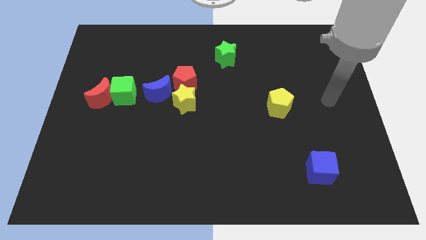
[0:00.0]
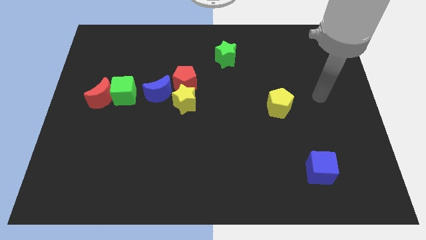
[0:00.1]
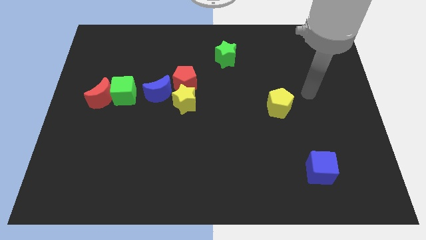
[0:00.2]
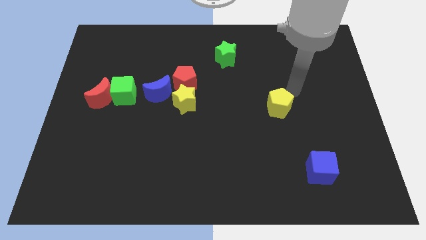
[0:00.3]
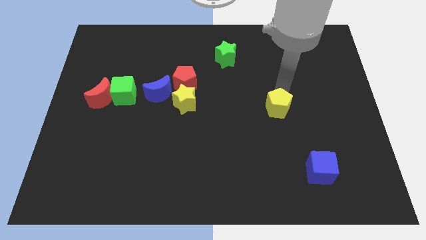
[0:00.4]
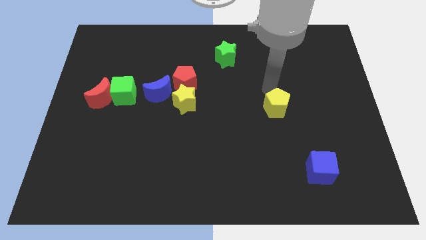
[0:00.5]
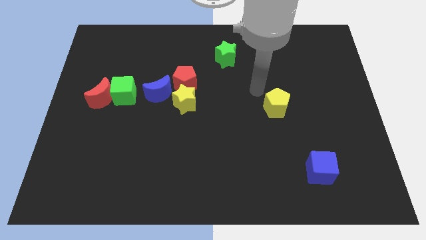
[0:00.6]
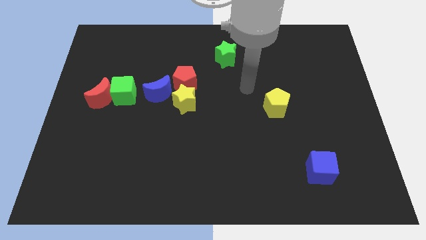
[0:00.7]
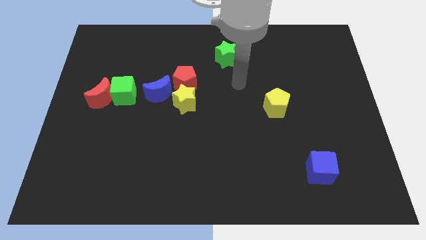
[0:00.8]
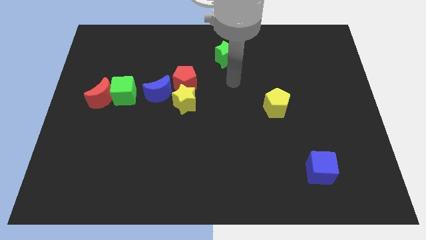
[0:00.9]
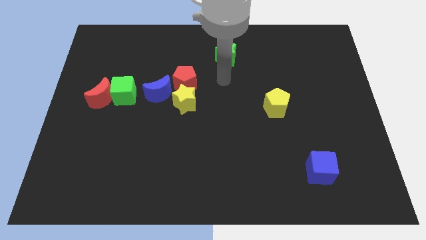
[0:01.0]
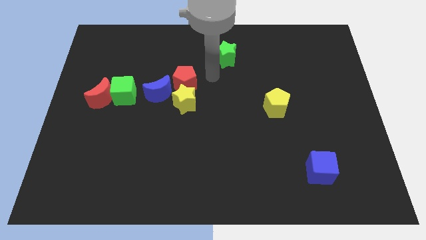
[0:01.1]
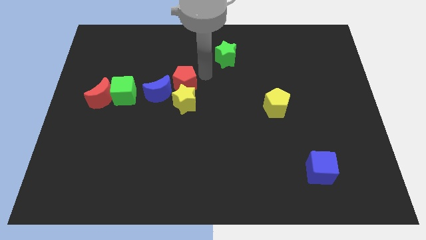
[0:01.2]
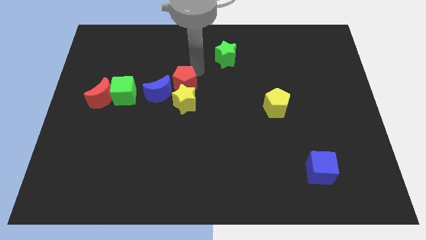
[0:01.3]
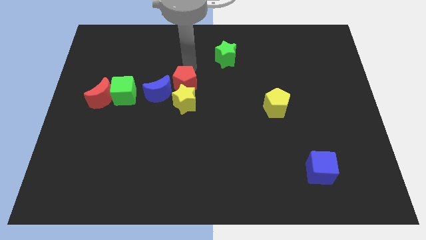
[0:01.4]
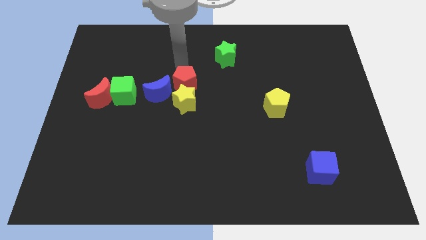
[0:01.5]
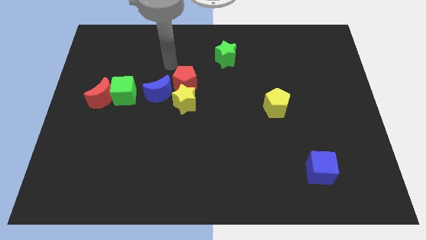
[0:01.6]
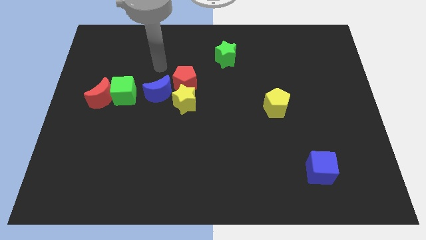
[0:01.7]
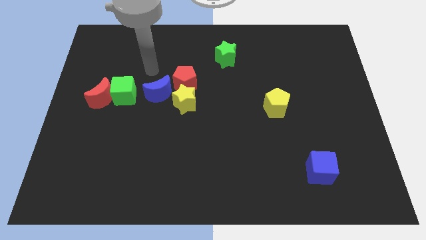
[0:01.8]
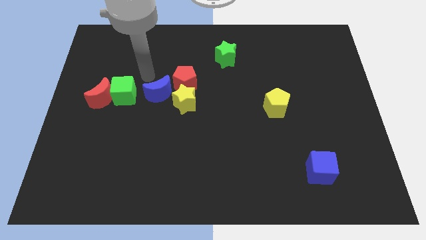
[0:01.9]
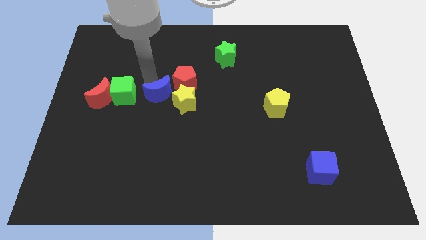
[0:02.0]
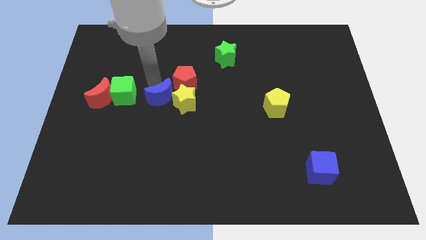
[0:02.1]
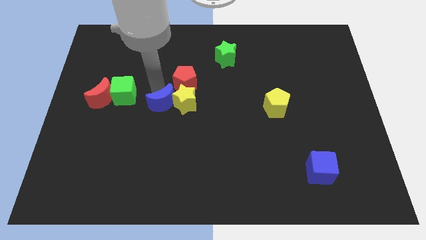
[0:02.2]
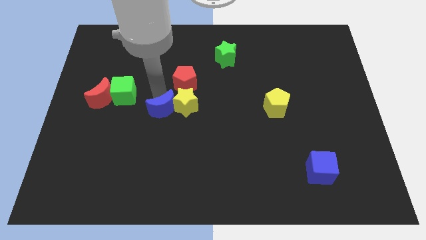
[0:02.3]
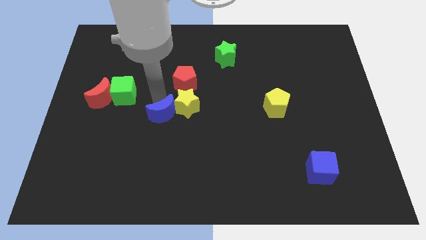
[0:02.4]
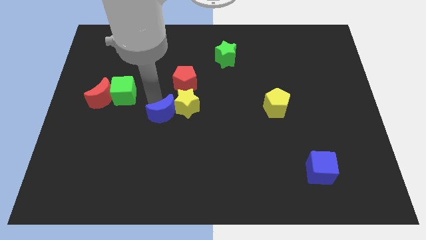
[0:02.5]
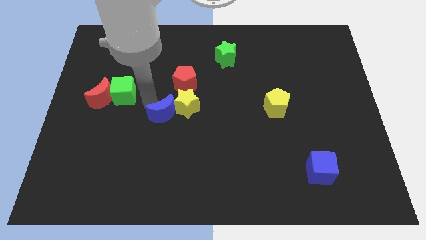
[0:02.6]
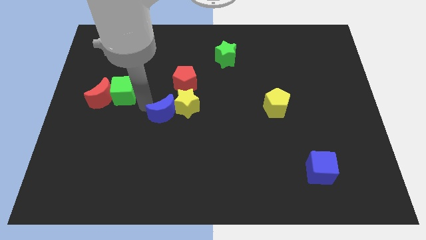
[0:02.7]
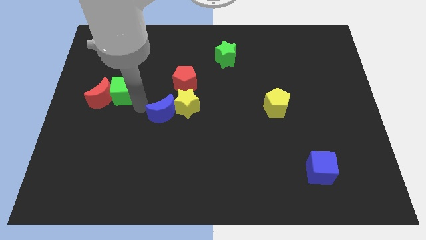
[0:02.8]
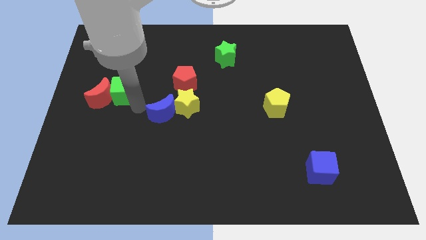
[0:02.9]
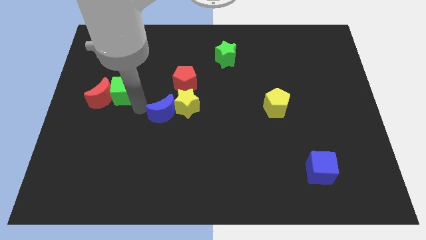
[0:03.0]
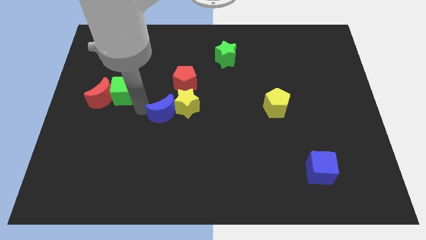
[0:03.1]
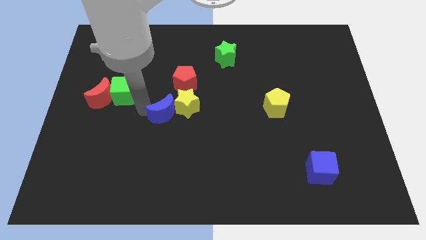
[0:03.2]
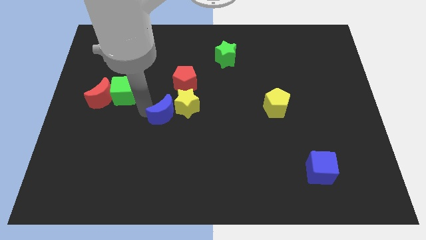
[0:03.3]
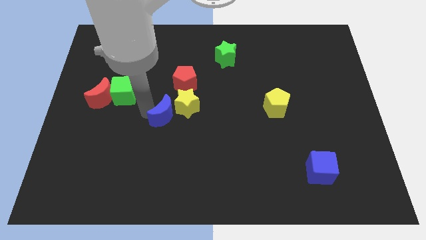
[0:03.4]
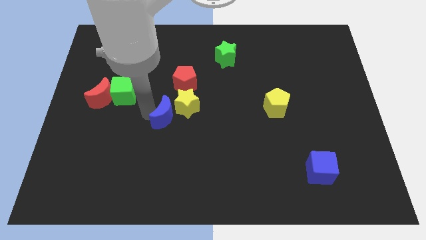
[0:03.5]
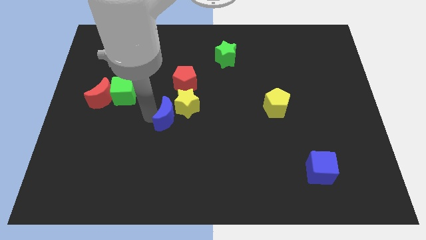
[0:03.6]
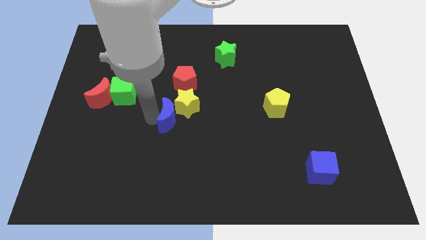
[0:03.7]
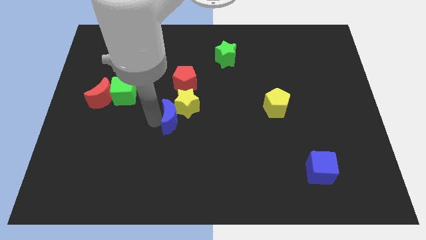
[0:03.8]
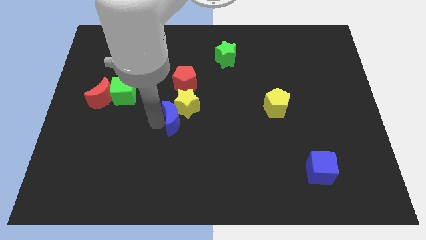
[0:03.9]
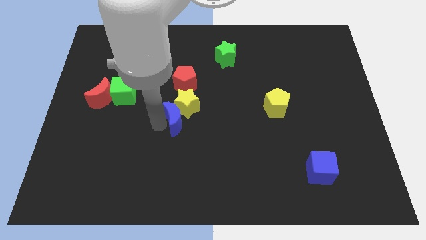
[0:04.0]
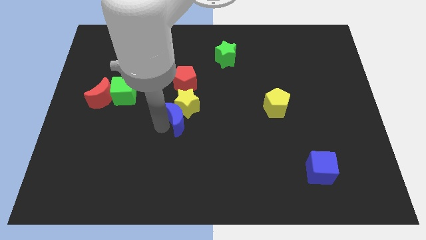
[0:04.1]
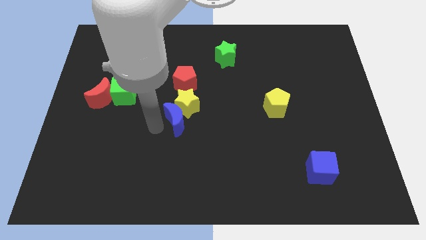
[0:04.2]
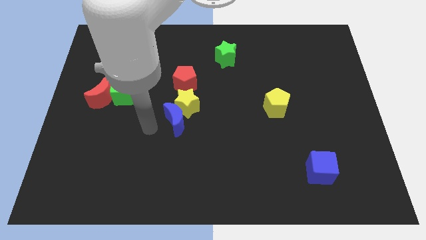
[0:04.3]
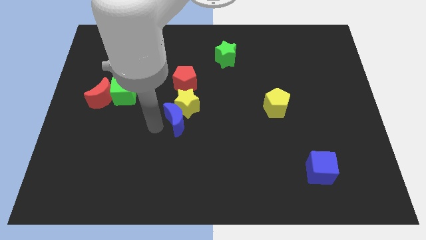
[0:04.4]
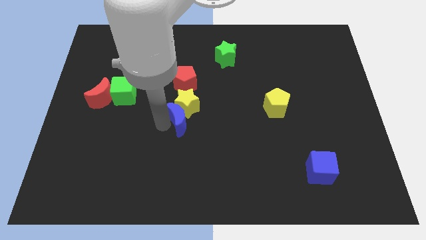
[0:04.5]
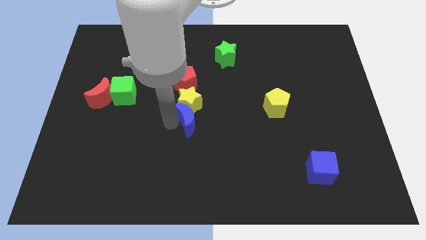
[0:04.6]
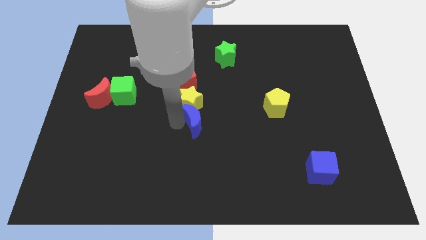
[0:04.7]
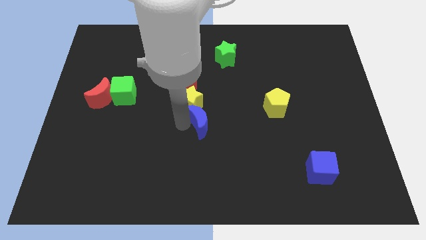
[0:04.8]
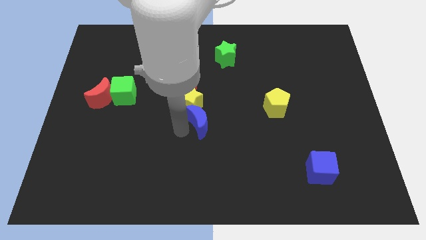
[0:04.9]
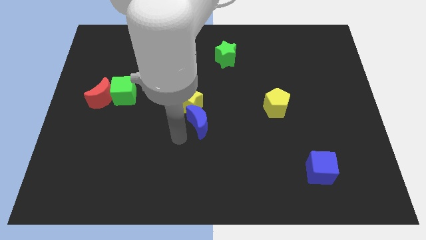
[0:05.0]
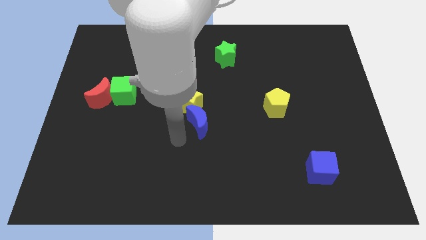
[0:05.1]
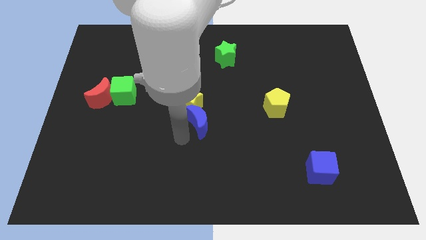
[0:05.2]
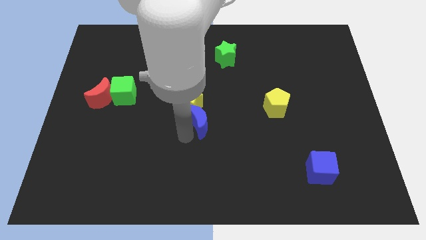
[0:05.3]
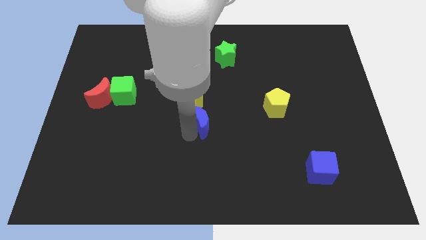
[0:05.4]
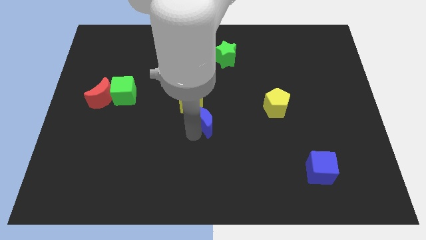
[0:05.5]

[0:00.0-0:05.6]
slightly push the blue moon right

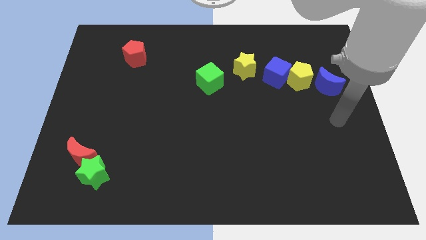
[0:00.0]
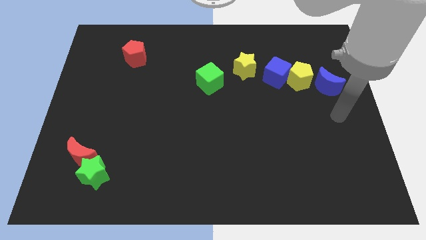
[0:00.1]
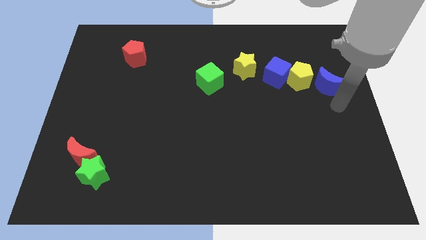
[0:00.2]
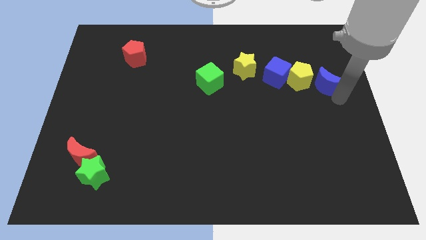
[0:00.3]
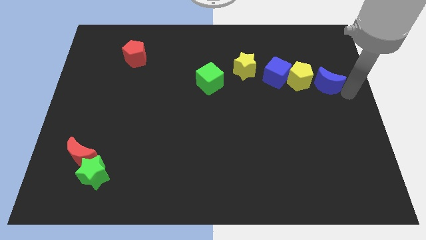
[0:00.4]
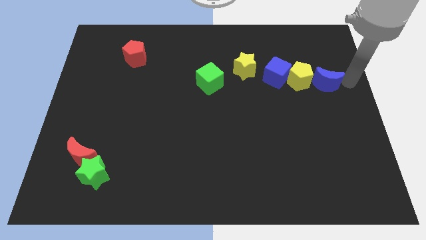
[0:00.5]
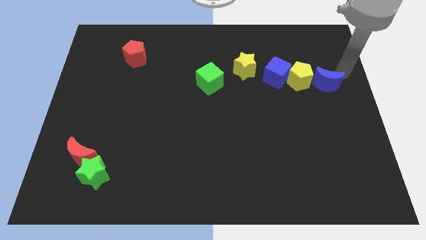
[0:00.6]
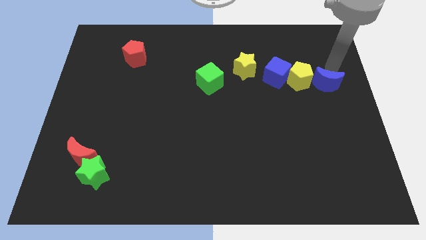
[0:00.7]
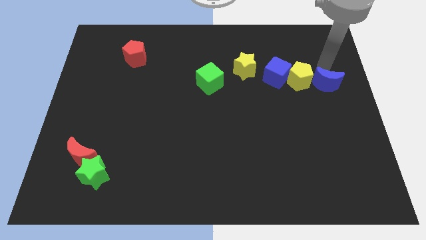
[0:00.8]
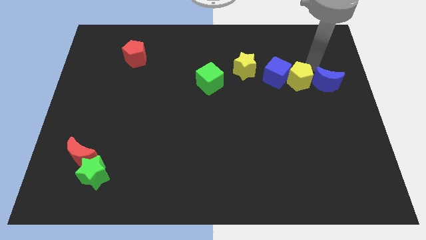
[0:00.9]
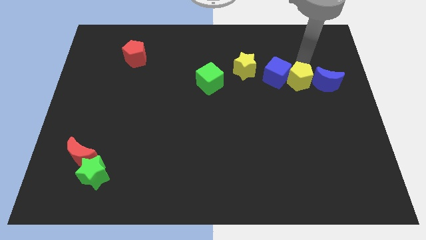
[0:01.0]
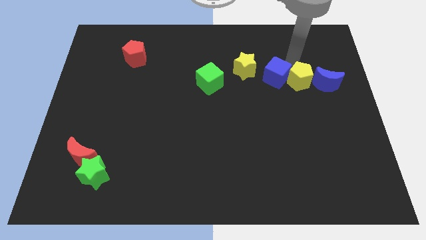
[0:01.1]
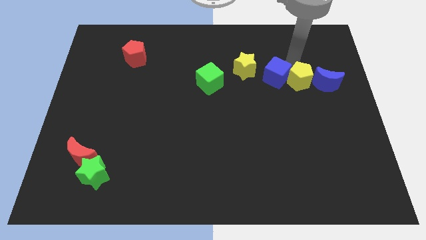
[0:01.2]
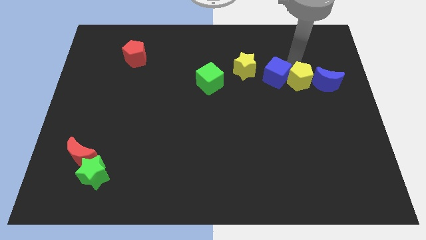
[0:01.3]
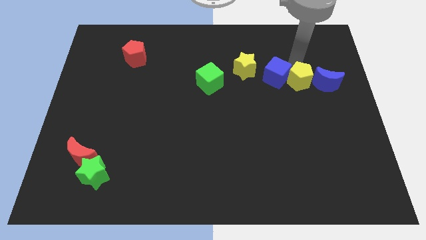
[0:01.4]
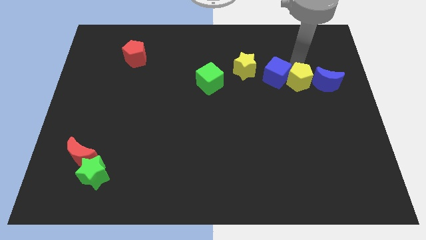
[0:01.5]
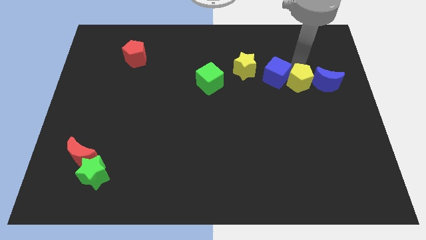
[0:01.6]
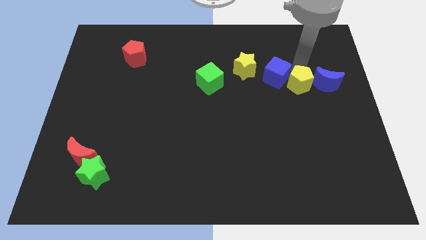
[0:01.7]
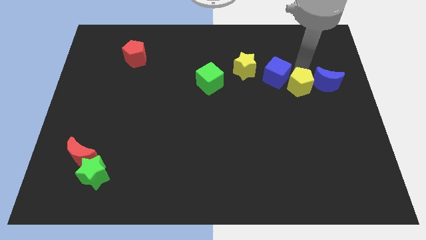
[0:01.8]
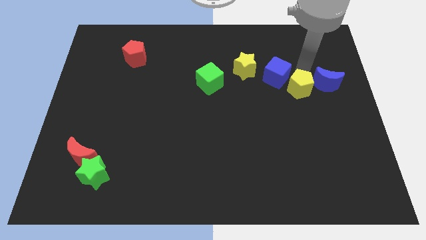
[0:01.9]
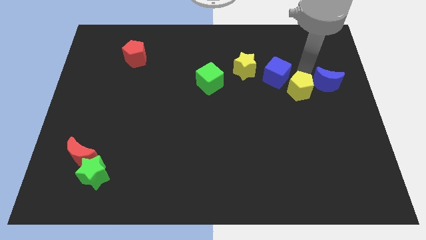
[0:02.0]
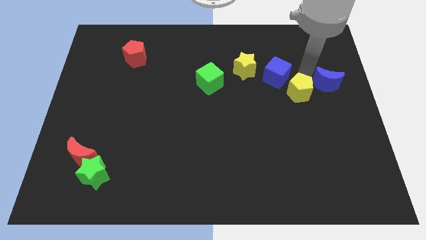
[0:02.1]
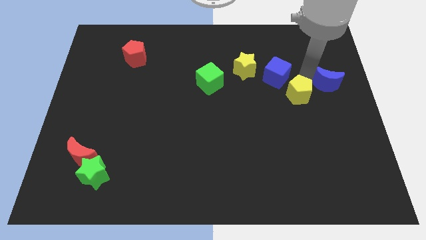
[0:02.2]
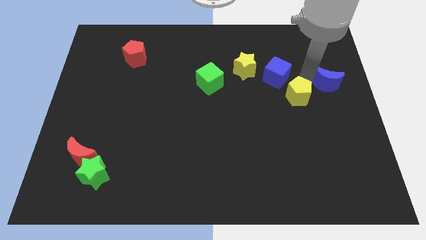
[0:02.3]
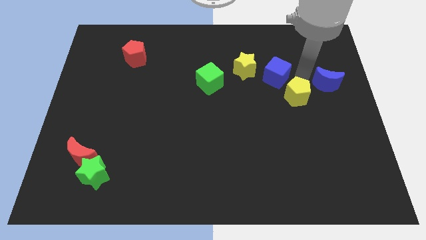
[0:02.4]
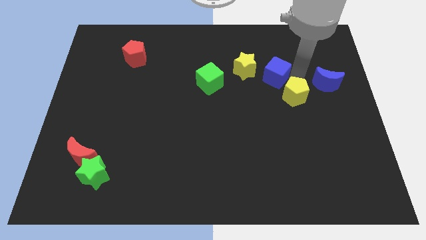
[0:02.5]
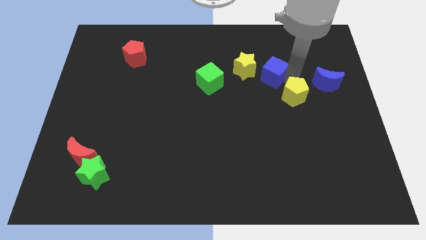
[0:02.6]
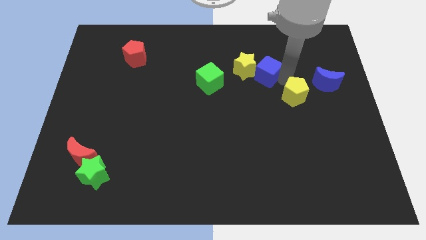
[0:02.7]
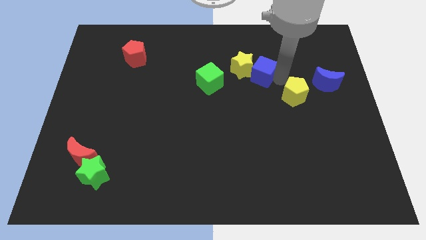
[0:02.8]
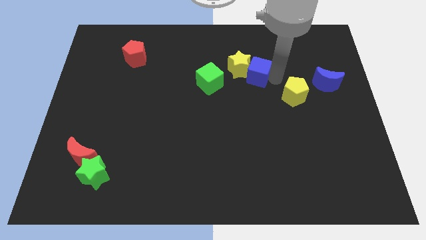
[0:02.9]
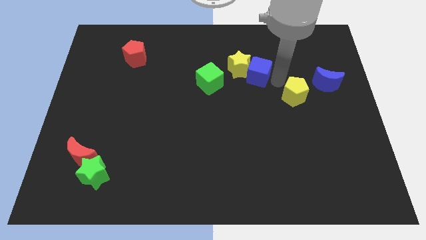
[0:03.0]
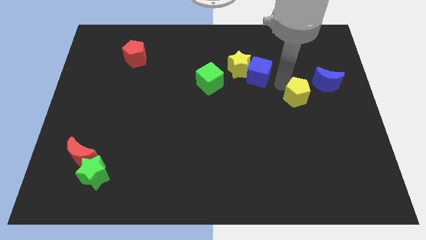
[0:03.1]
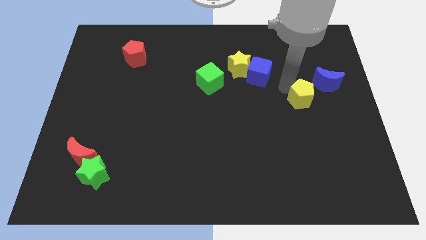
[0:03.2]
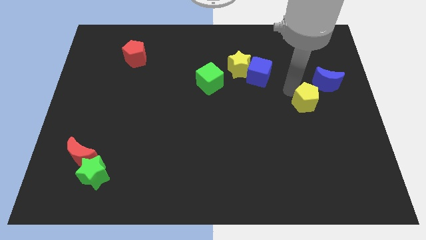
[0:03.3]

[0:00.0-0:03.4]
move the yellow pentagon downwards a bit
